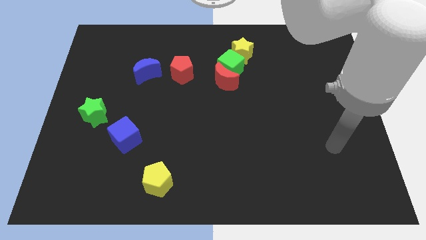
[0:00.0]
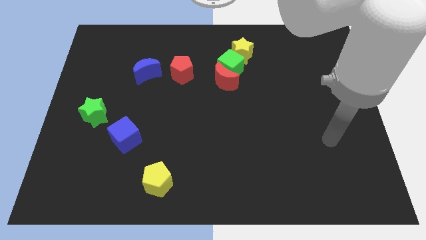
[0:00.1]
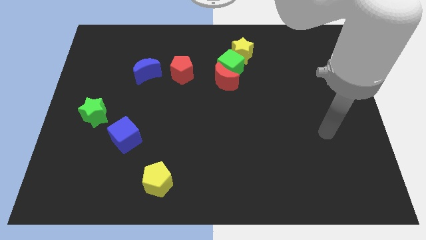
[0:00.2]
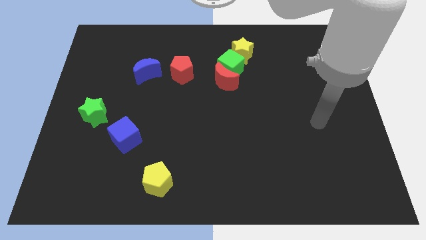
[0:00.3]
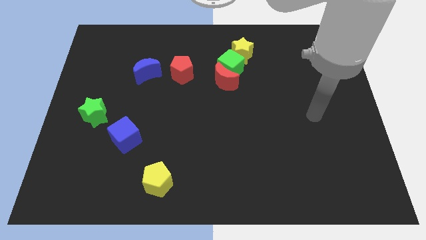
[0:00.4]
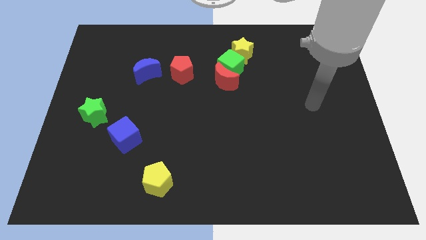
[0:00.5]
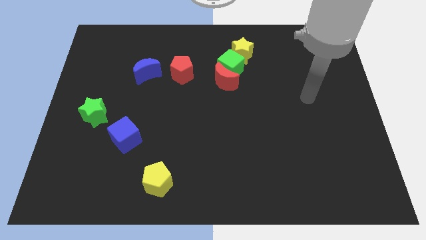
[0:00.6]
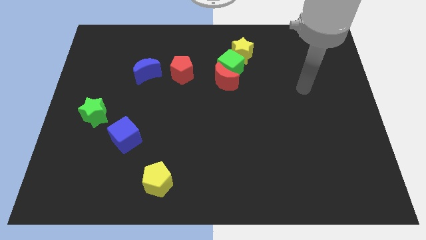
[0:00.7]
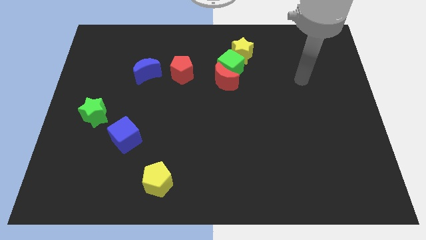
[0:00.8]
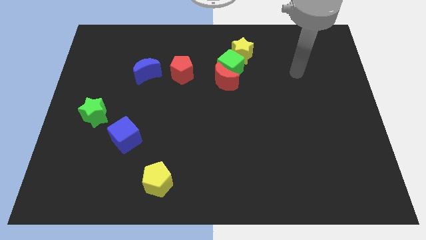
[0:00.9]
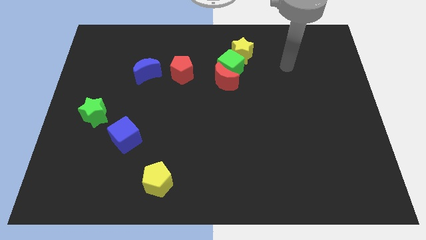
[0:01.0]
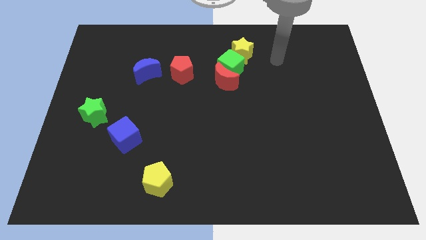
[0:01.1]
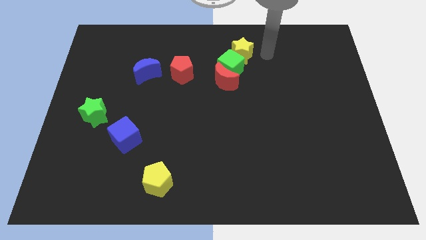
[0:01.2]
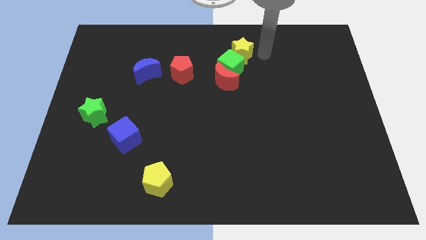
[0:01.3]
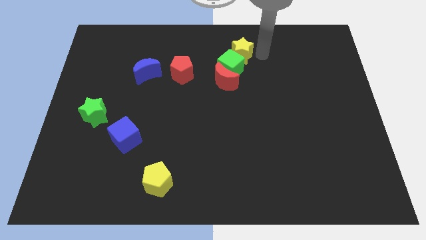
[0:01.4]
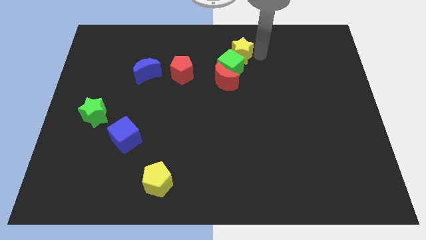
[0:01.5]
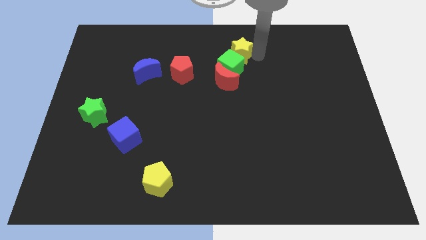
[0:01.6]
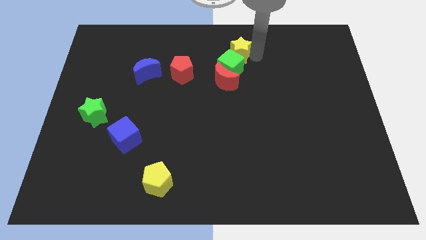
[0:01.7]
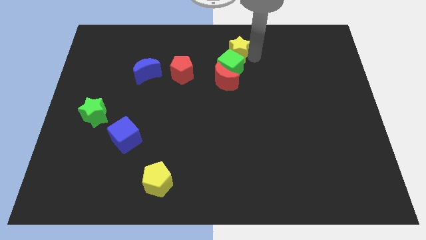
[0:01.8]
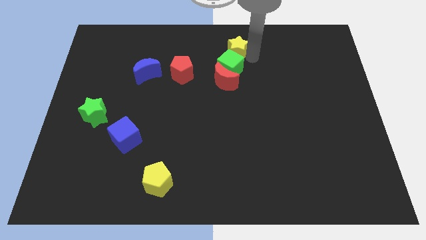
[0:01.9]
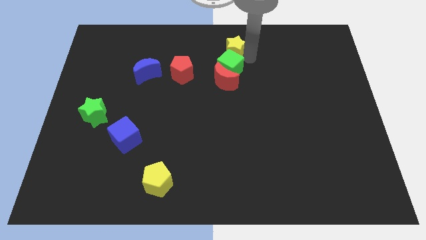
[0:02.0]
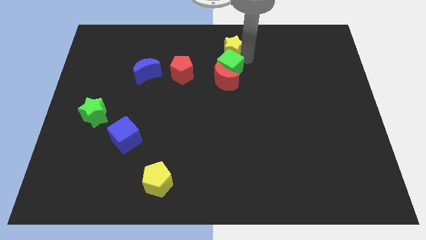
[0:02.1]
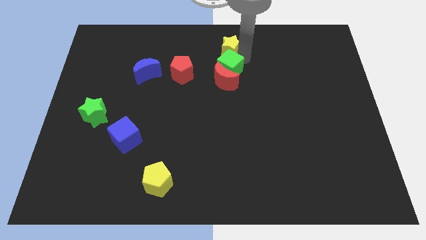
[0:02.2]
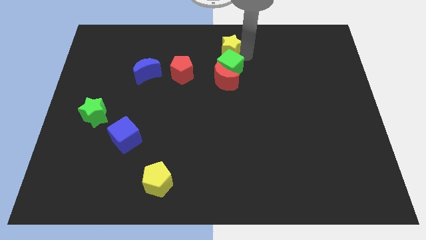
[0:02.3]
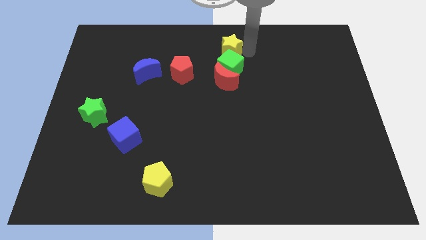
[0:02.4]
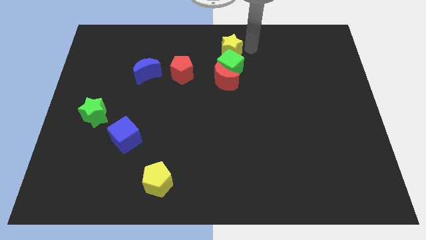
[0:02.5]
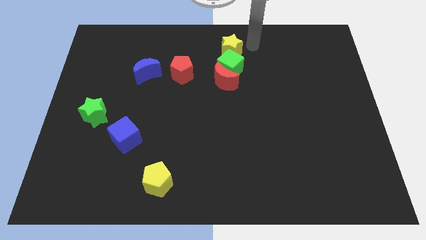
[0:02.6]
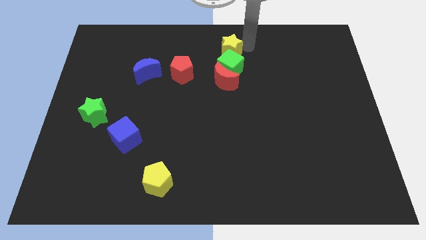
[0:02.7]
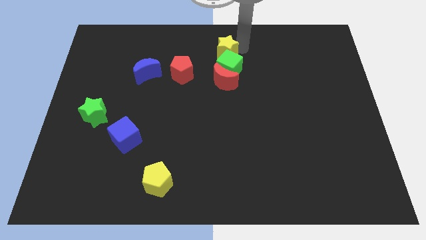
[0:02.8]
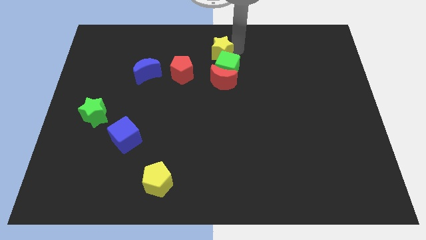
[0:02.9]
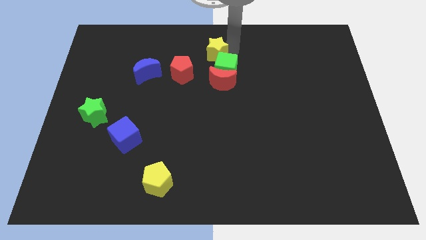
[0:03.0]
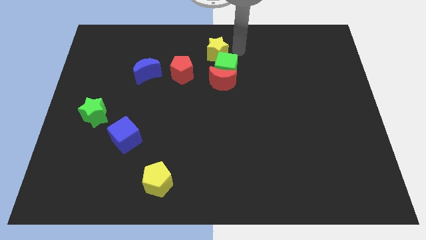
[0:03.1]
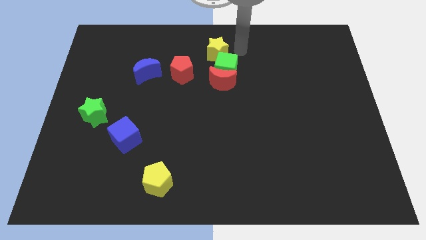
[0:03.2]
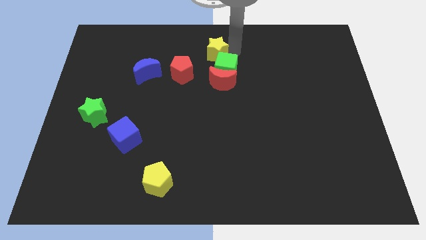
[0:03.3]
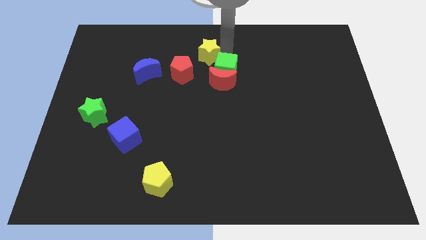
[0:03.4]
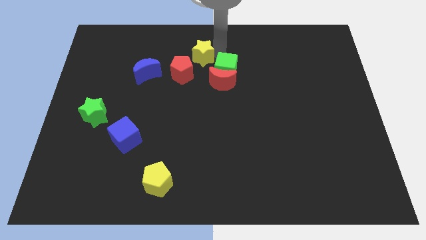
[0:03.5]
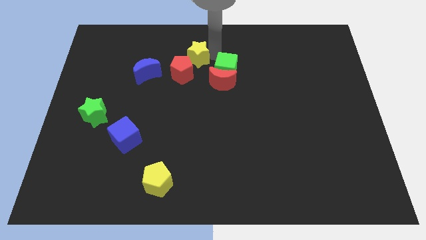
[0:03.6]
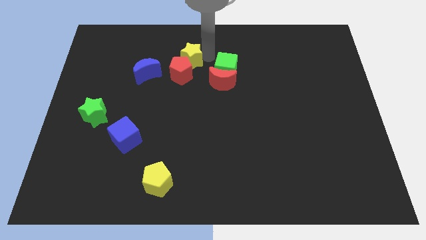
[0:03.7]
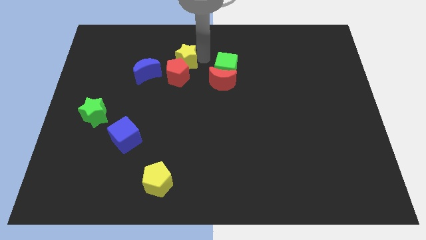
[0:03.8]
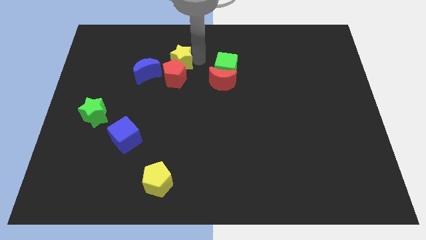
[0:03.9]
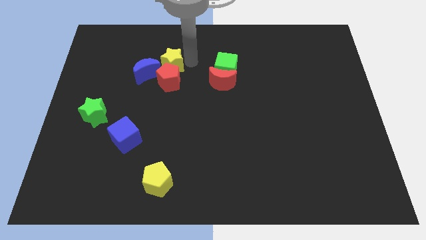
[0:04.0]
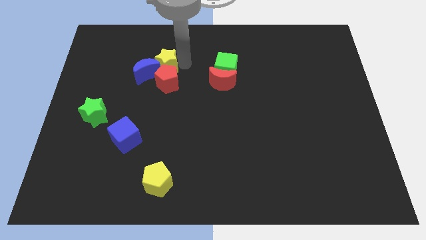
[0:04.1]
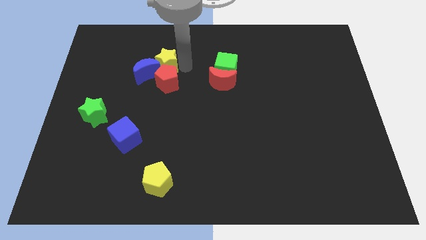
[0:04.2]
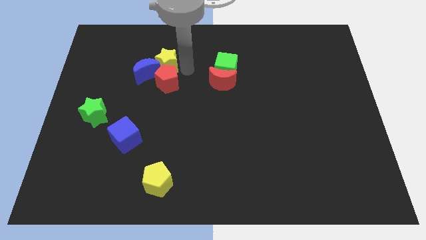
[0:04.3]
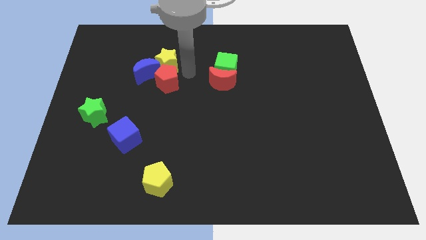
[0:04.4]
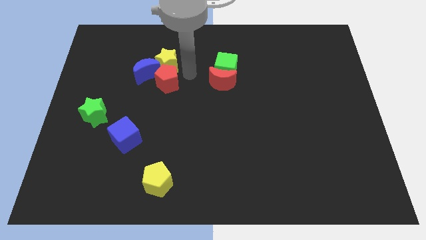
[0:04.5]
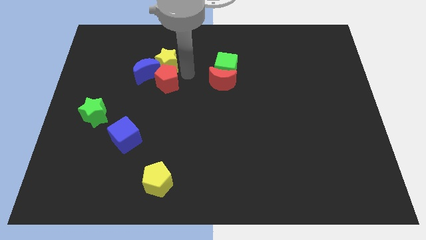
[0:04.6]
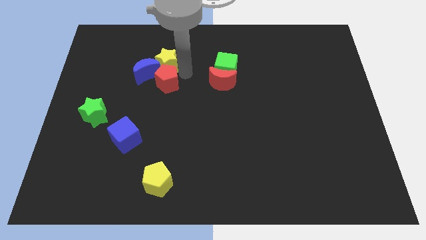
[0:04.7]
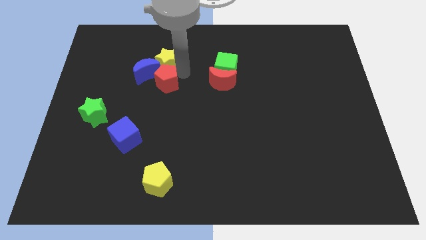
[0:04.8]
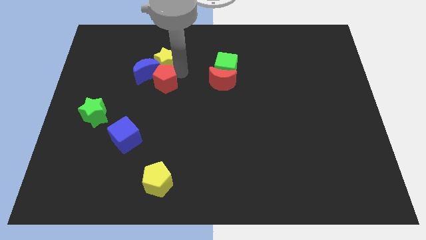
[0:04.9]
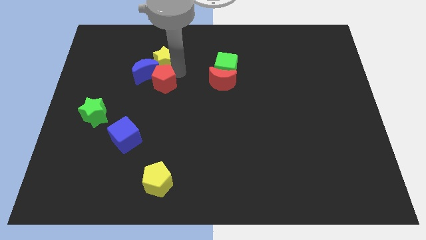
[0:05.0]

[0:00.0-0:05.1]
move the yellow star left

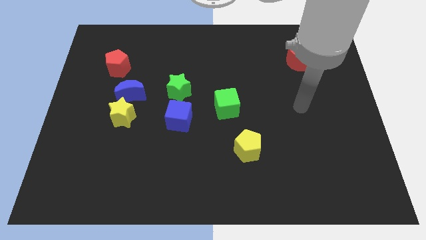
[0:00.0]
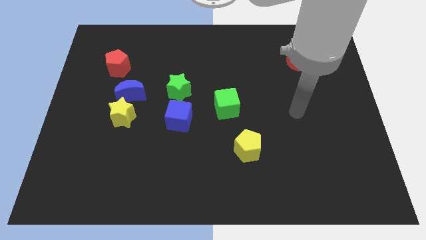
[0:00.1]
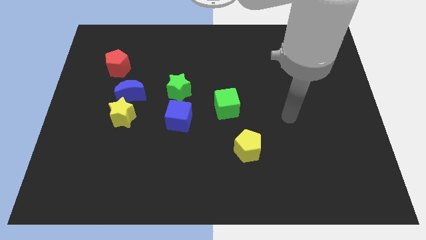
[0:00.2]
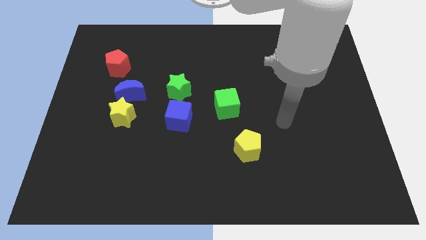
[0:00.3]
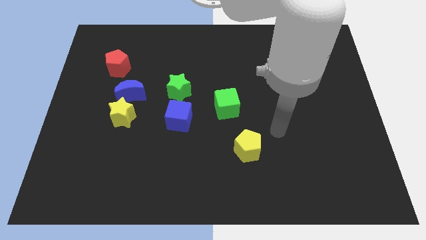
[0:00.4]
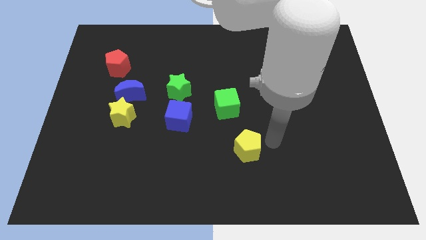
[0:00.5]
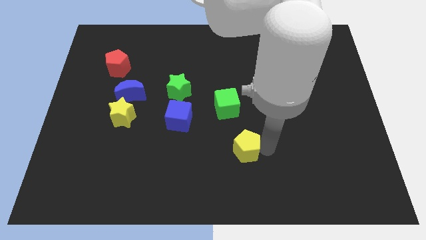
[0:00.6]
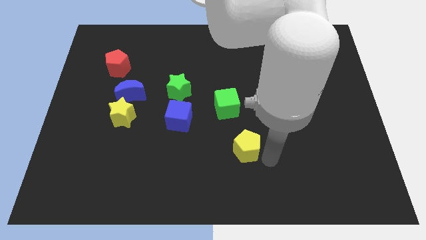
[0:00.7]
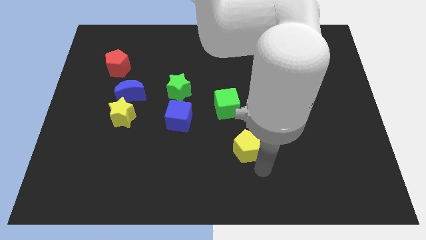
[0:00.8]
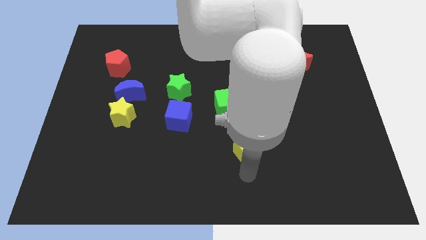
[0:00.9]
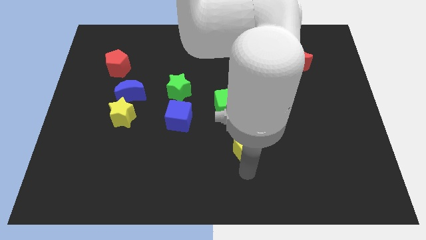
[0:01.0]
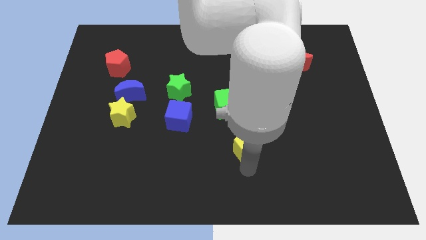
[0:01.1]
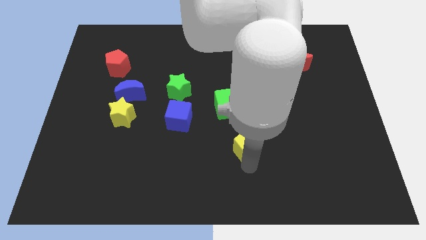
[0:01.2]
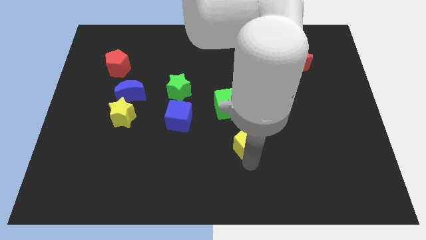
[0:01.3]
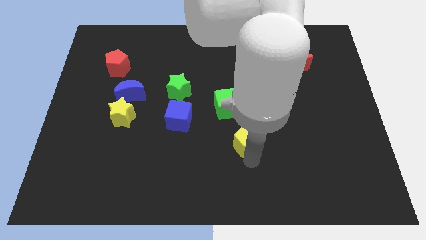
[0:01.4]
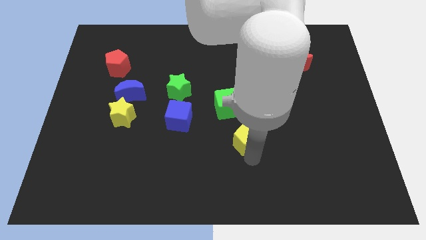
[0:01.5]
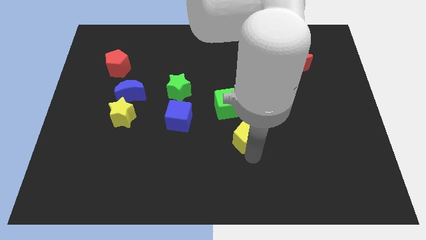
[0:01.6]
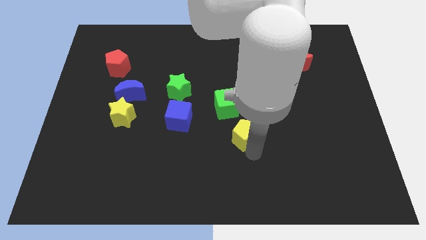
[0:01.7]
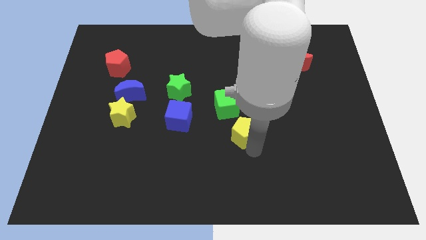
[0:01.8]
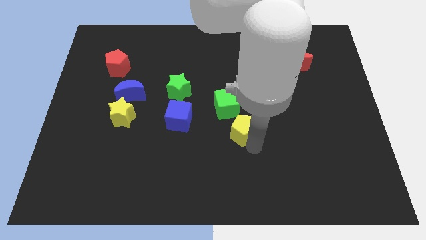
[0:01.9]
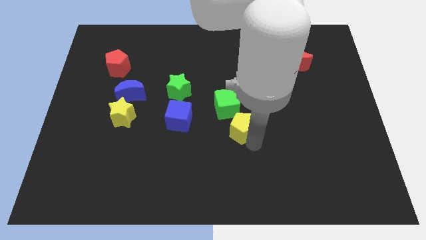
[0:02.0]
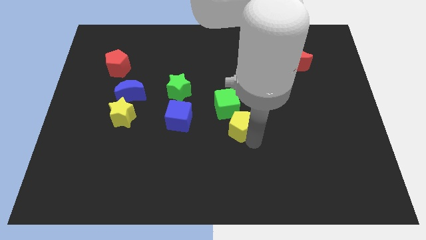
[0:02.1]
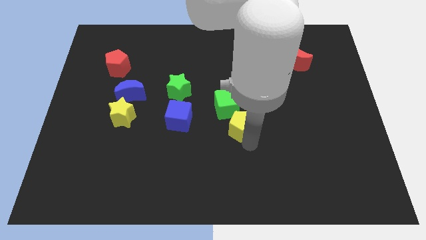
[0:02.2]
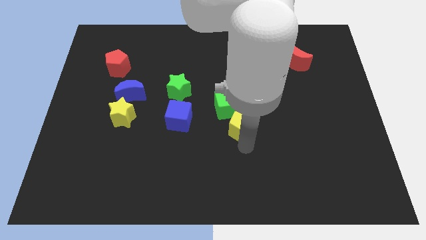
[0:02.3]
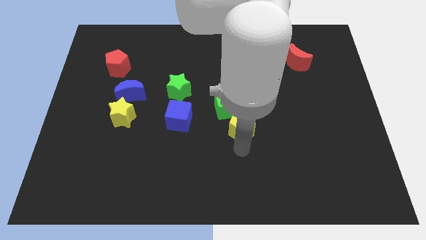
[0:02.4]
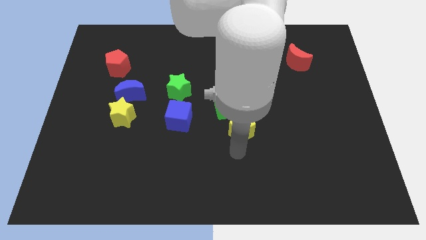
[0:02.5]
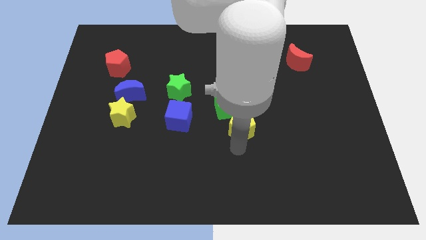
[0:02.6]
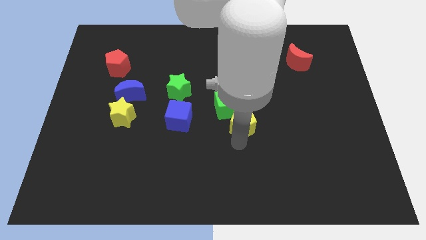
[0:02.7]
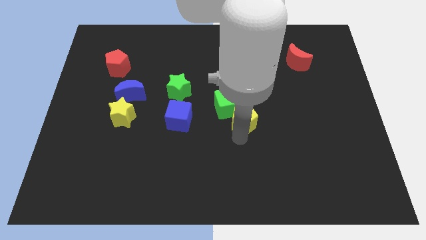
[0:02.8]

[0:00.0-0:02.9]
push the yellow pentagon upwards slightly

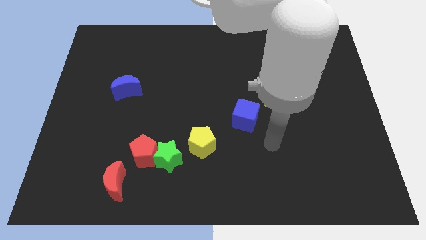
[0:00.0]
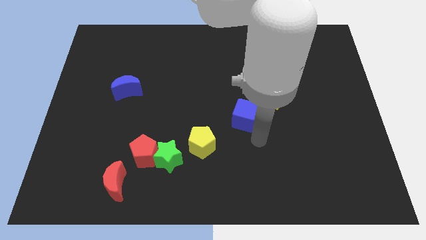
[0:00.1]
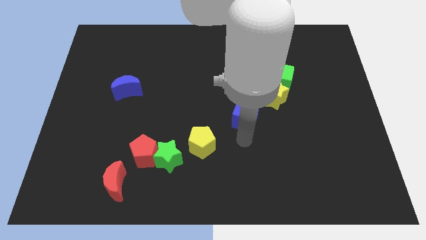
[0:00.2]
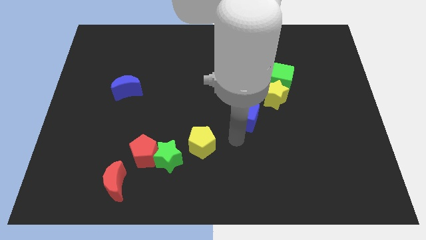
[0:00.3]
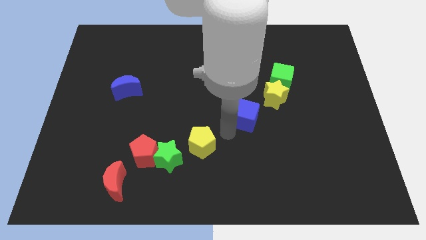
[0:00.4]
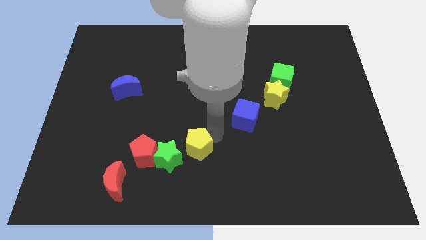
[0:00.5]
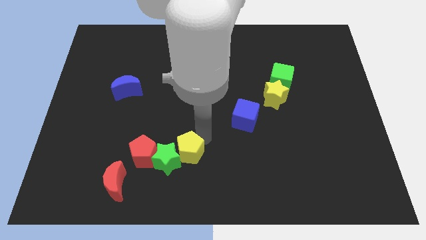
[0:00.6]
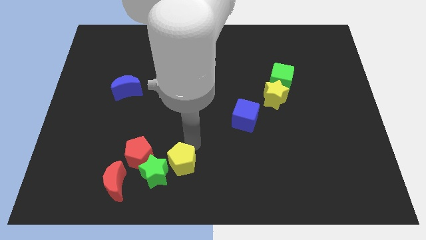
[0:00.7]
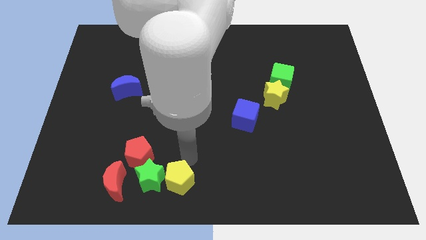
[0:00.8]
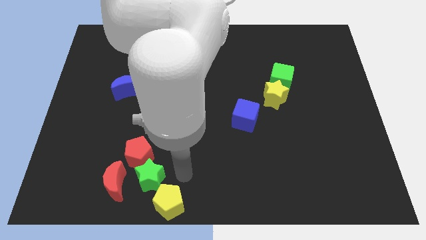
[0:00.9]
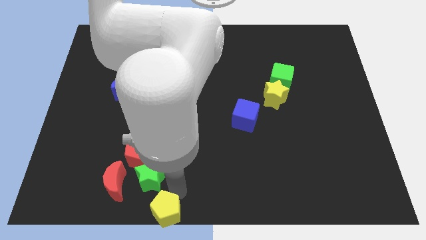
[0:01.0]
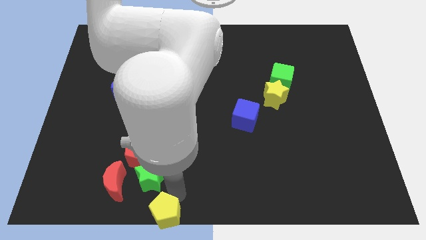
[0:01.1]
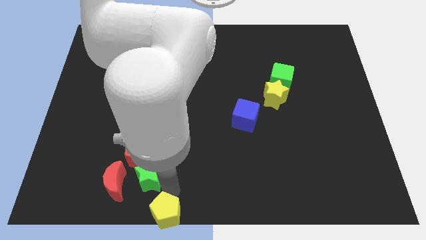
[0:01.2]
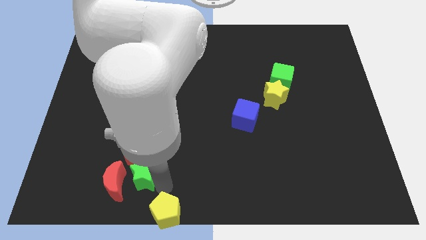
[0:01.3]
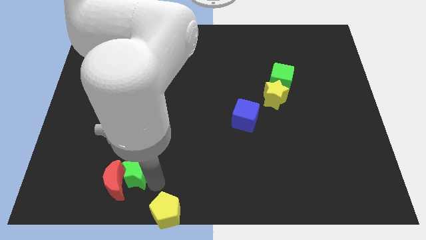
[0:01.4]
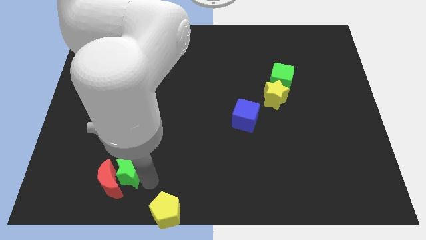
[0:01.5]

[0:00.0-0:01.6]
push the green star to the left a little bit
